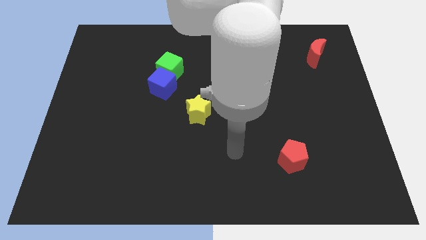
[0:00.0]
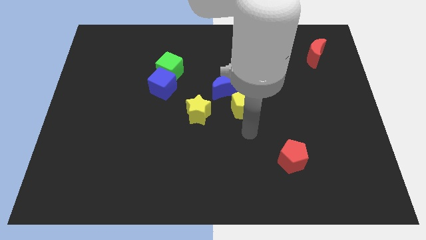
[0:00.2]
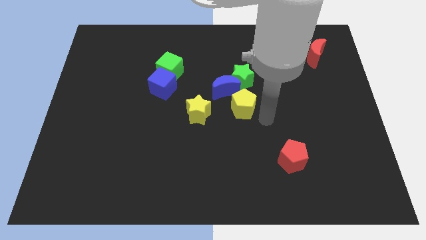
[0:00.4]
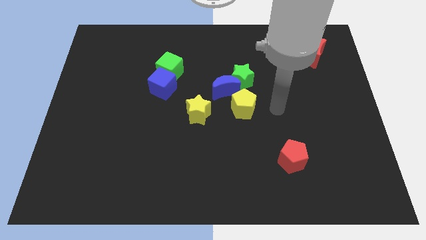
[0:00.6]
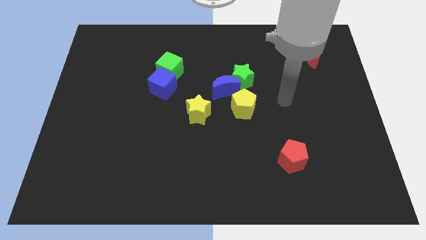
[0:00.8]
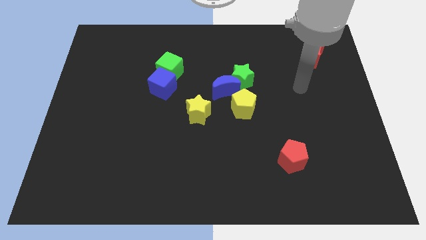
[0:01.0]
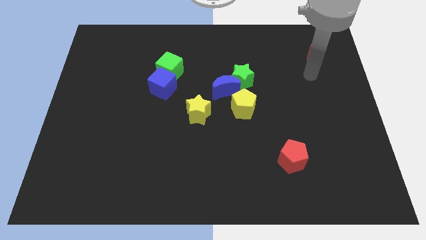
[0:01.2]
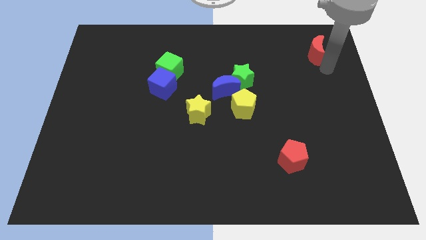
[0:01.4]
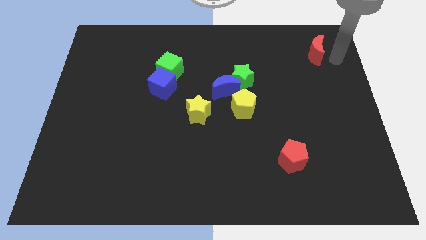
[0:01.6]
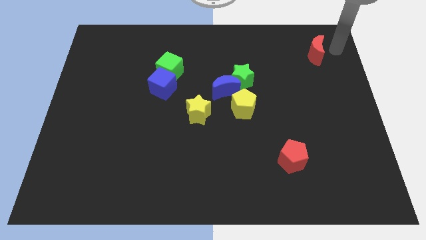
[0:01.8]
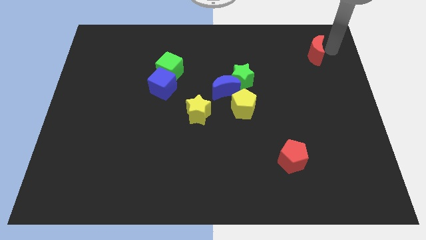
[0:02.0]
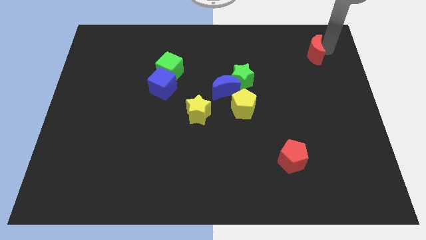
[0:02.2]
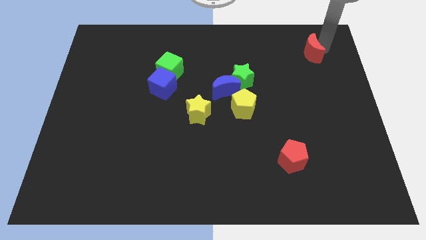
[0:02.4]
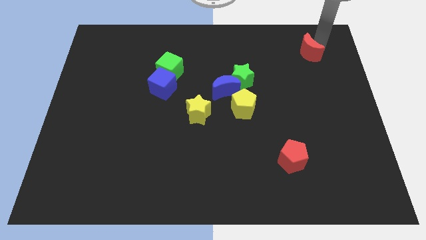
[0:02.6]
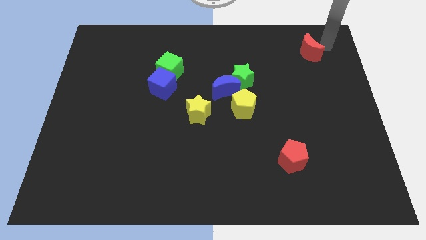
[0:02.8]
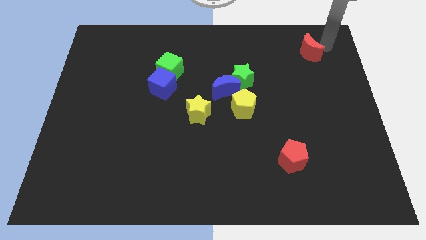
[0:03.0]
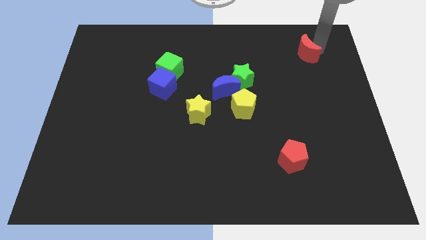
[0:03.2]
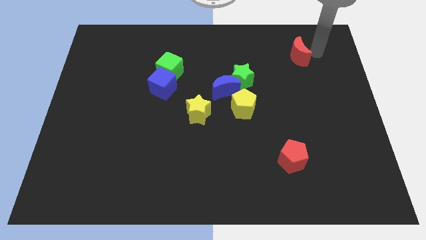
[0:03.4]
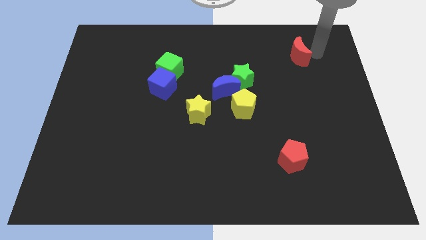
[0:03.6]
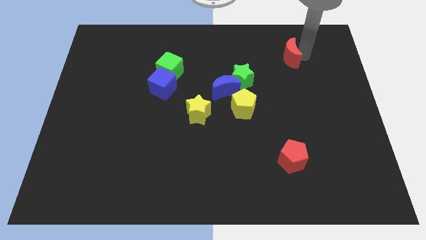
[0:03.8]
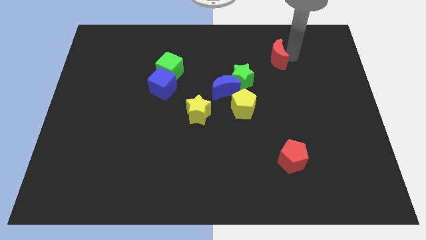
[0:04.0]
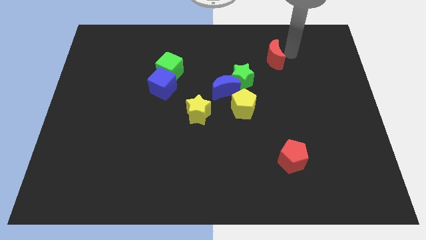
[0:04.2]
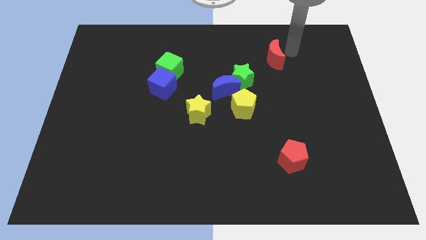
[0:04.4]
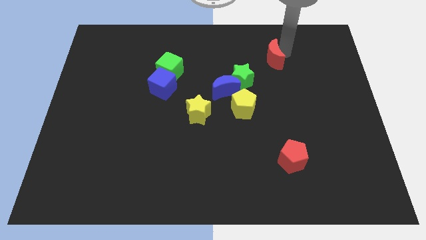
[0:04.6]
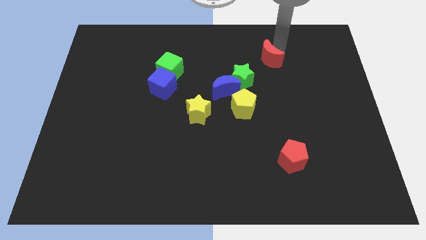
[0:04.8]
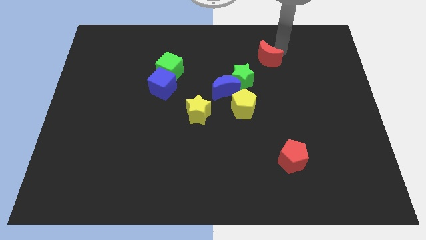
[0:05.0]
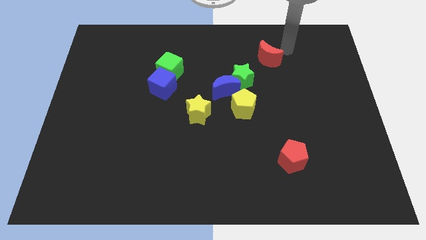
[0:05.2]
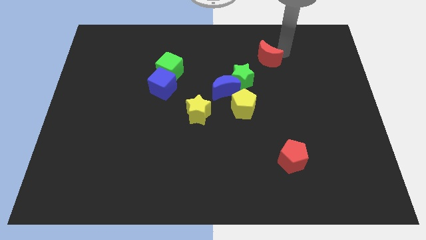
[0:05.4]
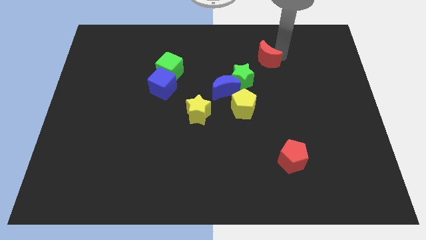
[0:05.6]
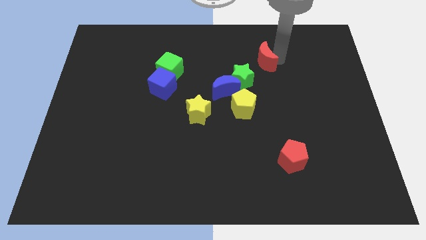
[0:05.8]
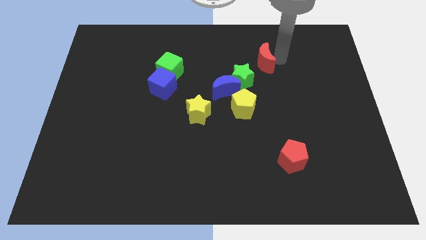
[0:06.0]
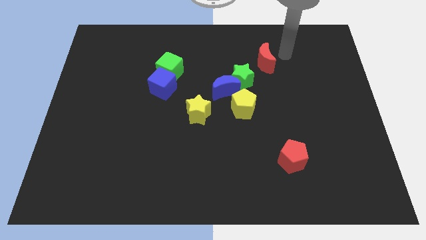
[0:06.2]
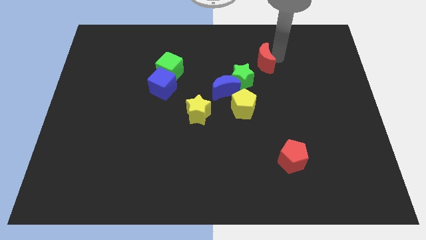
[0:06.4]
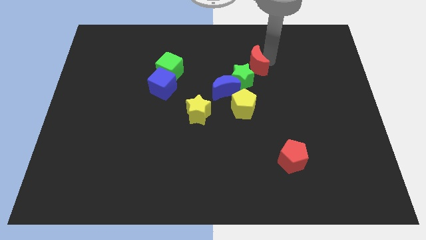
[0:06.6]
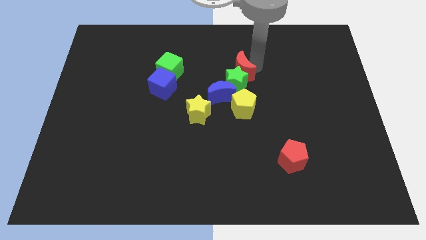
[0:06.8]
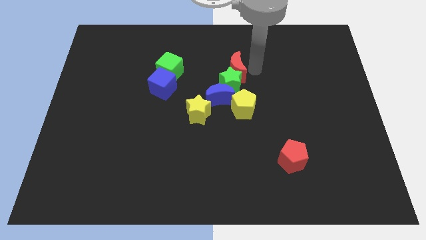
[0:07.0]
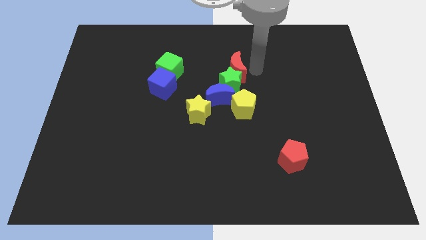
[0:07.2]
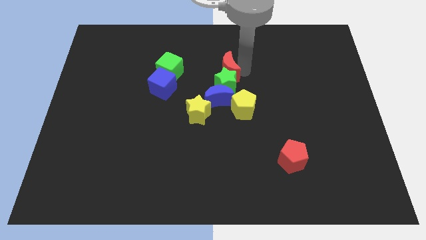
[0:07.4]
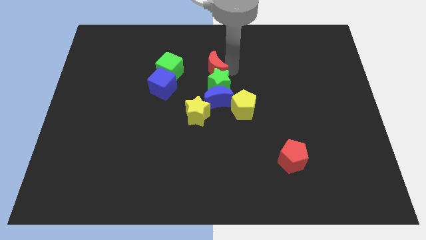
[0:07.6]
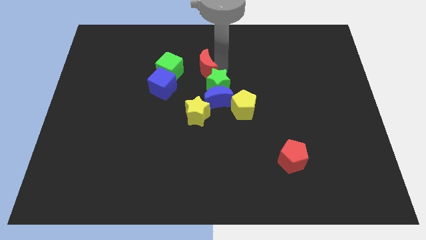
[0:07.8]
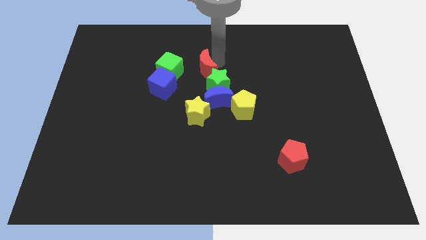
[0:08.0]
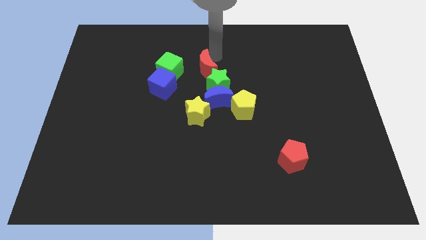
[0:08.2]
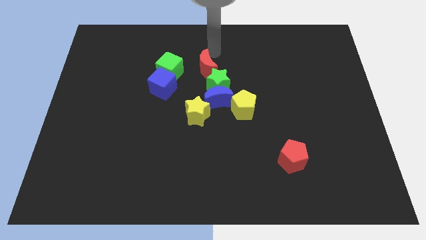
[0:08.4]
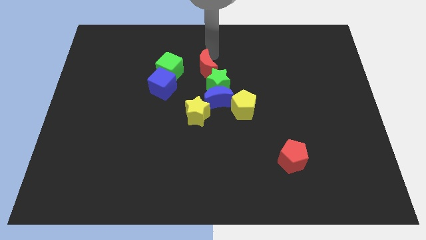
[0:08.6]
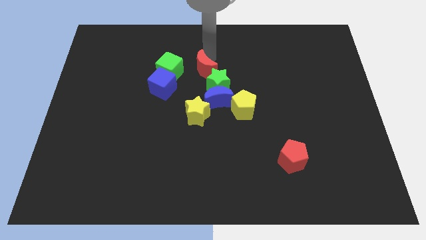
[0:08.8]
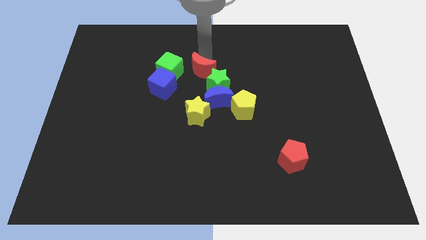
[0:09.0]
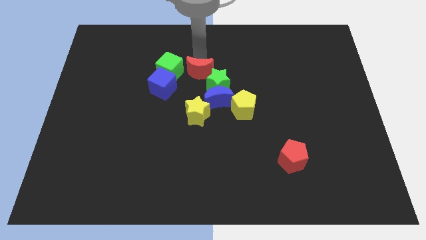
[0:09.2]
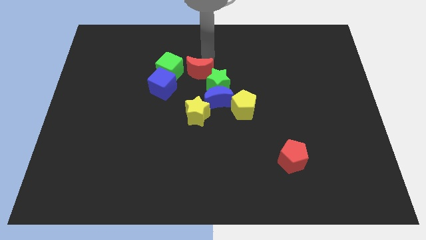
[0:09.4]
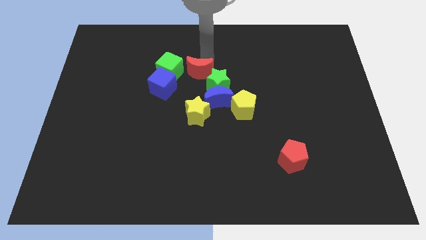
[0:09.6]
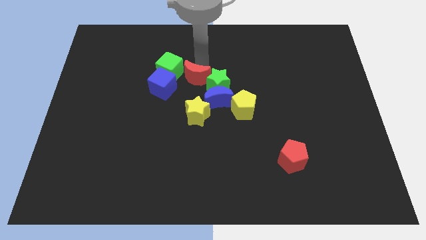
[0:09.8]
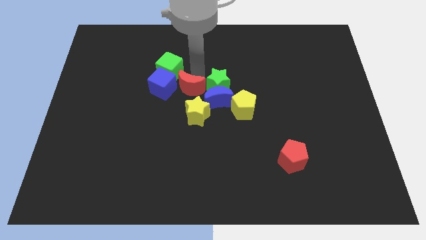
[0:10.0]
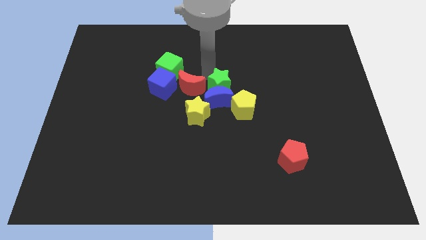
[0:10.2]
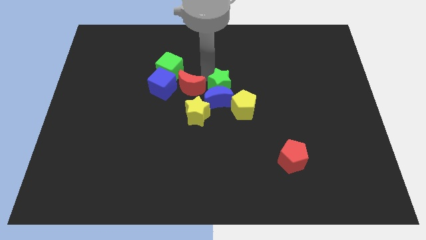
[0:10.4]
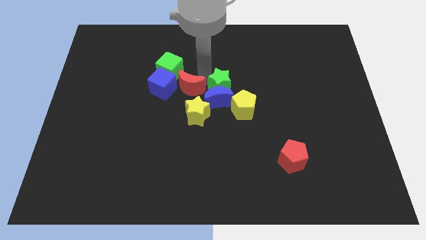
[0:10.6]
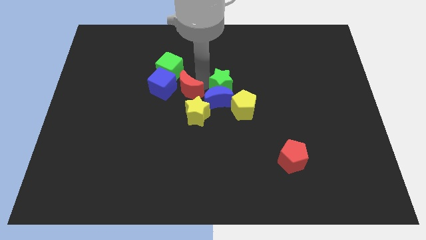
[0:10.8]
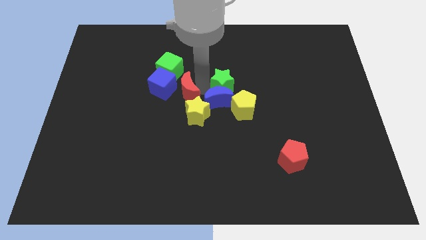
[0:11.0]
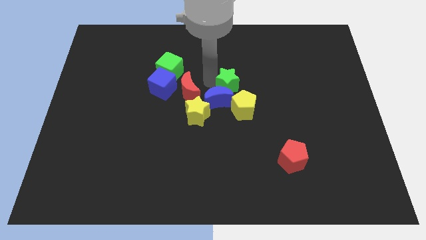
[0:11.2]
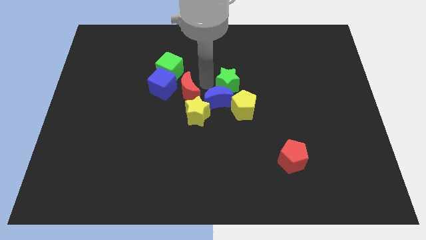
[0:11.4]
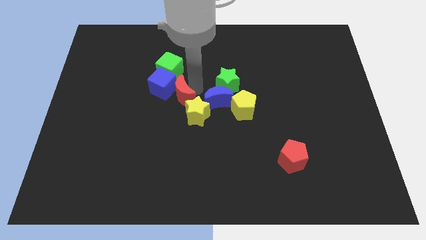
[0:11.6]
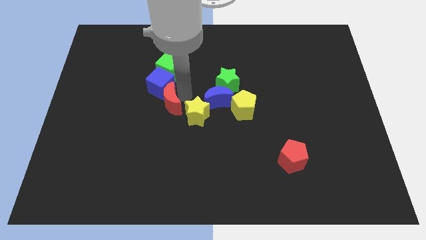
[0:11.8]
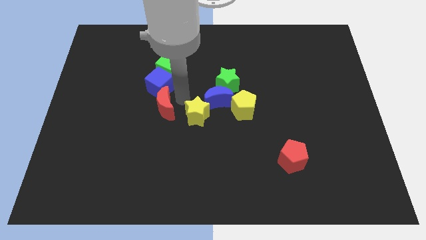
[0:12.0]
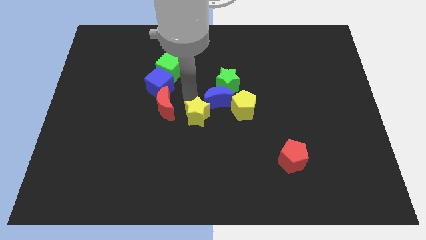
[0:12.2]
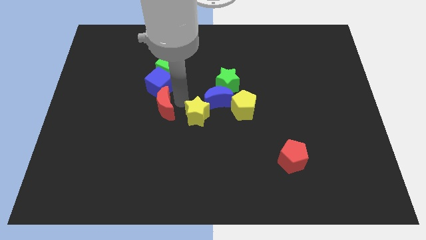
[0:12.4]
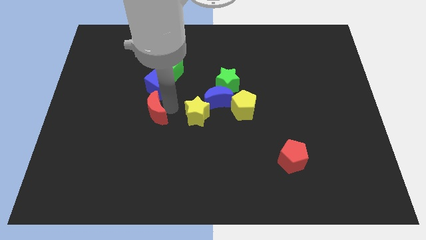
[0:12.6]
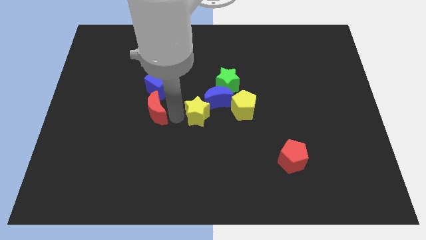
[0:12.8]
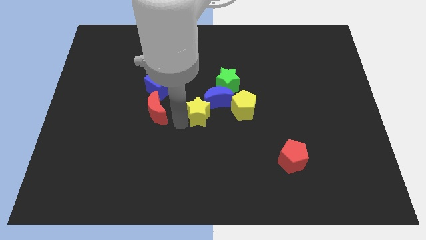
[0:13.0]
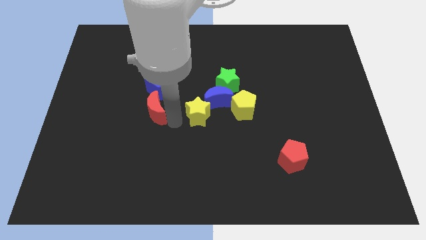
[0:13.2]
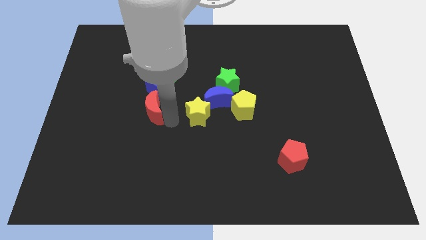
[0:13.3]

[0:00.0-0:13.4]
move the red moon to the bottom left of the blue cube
